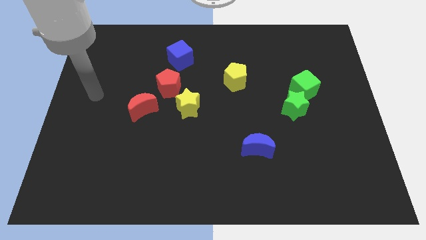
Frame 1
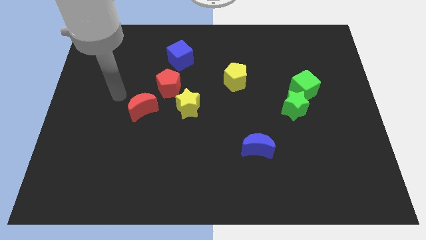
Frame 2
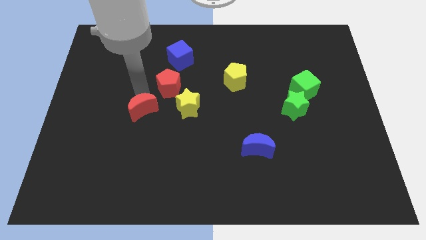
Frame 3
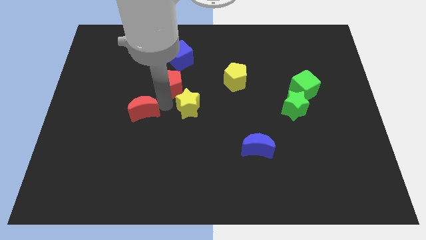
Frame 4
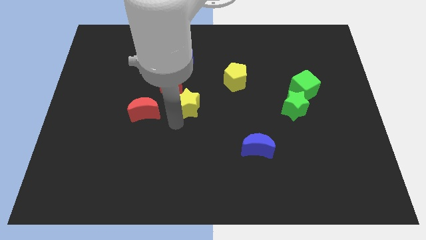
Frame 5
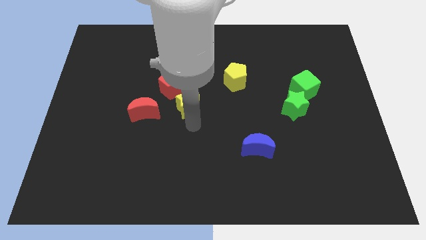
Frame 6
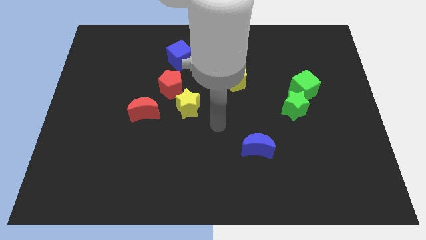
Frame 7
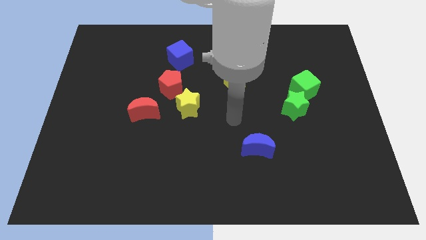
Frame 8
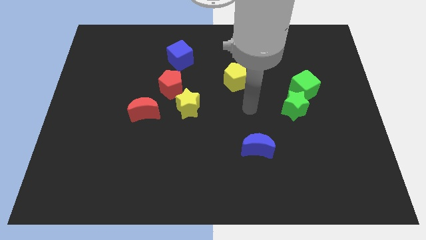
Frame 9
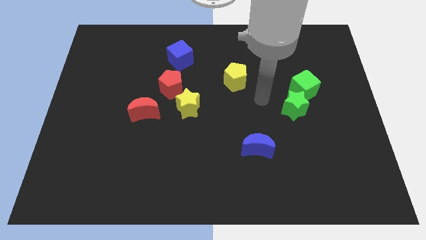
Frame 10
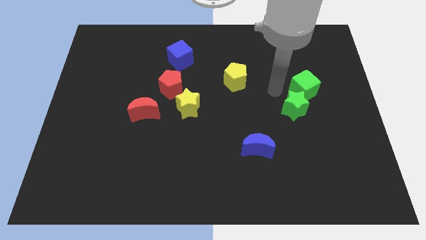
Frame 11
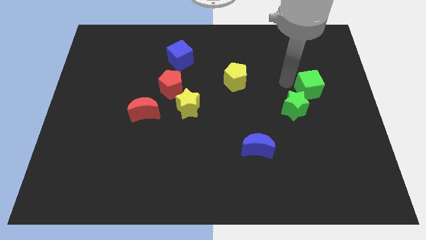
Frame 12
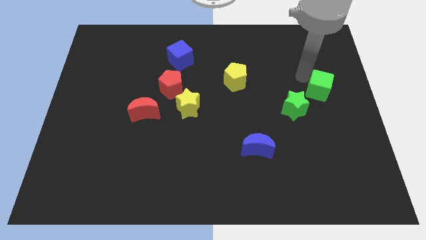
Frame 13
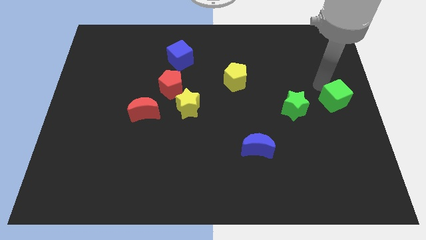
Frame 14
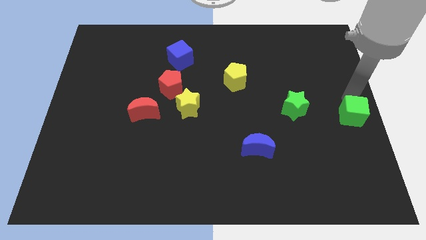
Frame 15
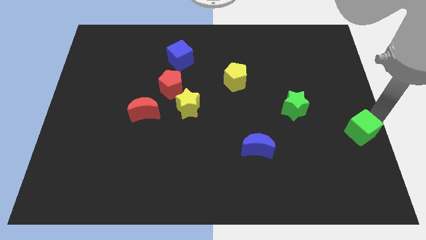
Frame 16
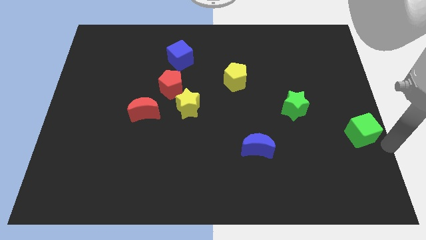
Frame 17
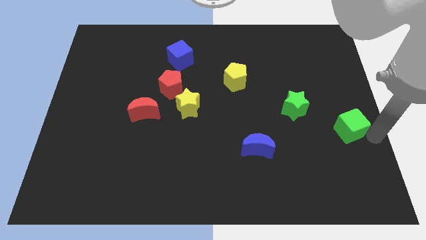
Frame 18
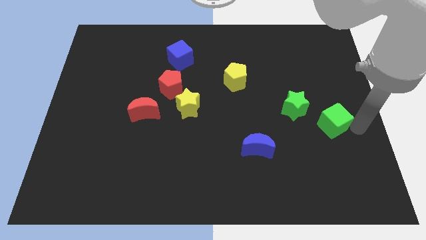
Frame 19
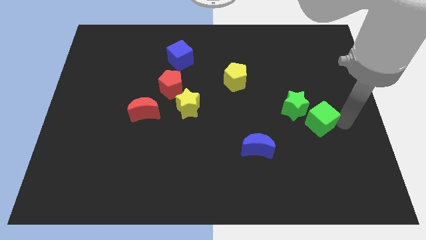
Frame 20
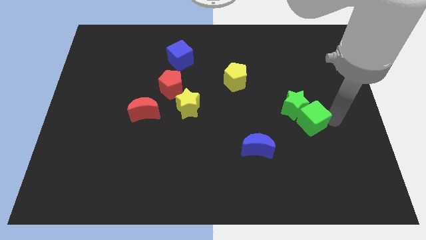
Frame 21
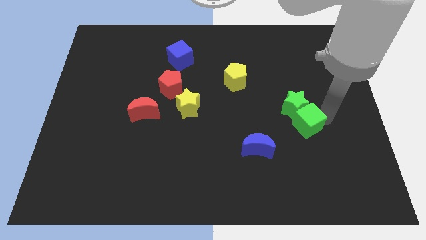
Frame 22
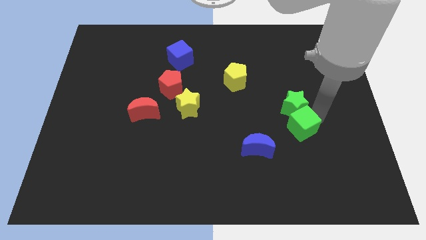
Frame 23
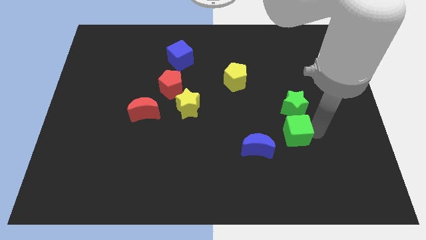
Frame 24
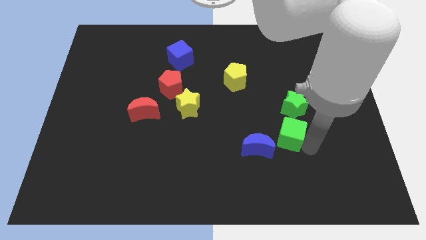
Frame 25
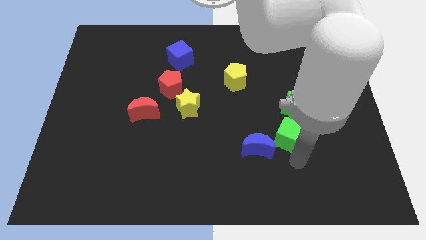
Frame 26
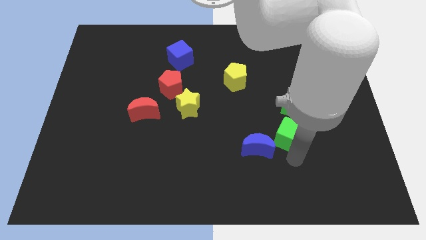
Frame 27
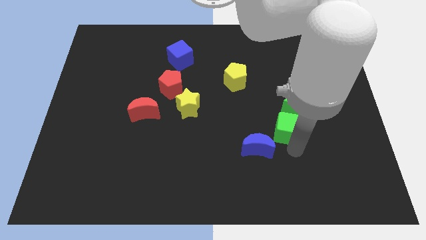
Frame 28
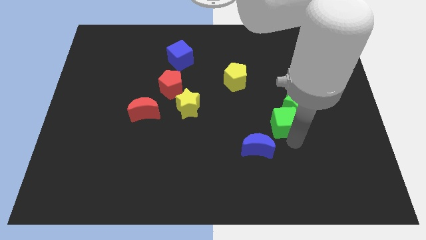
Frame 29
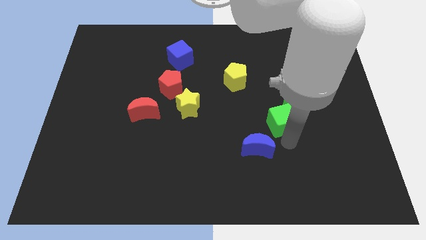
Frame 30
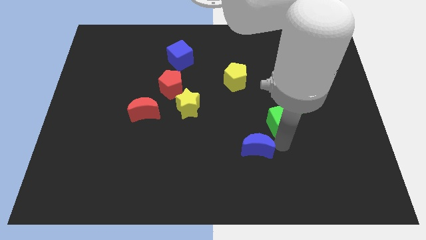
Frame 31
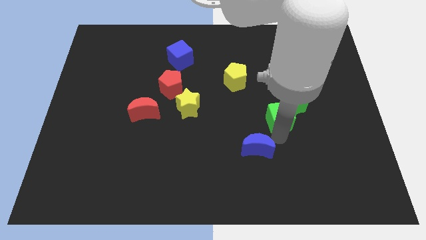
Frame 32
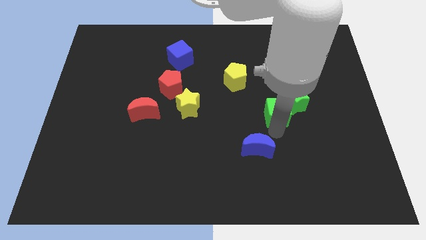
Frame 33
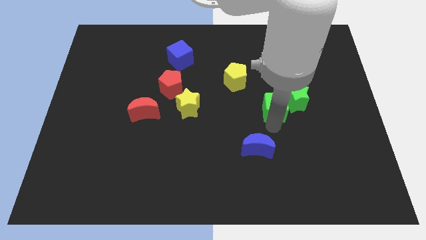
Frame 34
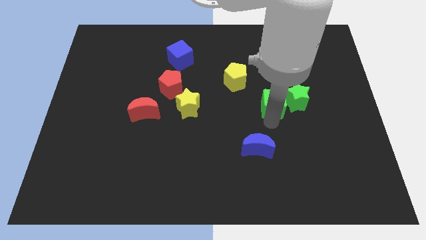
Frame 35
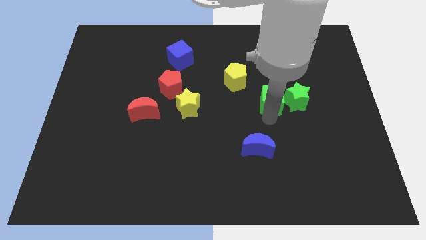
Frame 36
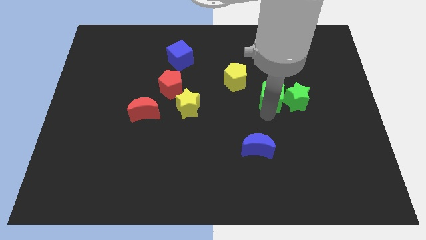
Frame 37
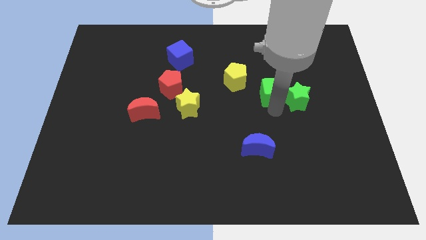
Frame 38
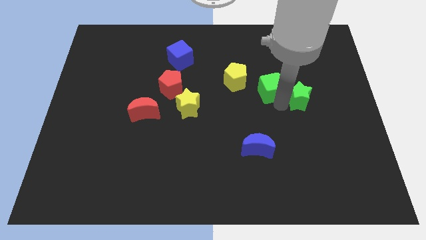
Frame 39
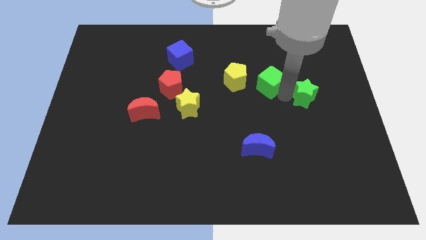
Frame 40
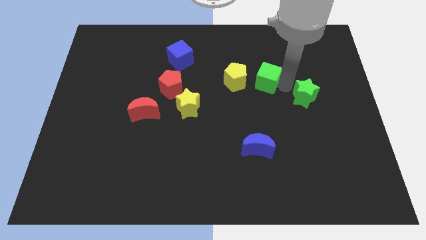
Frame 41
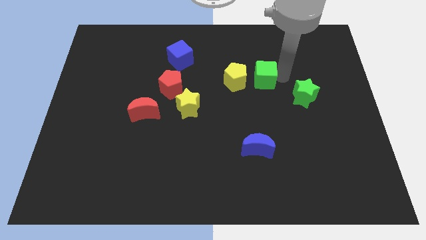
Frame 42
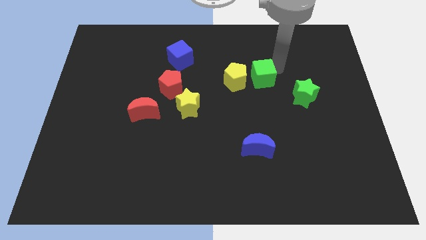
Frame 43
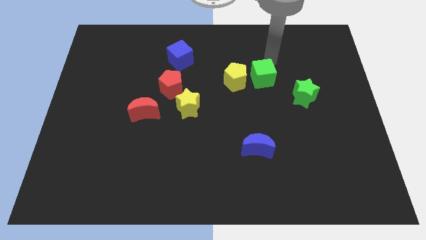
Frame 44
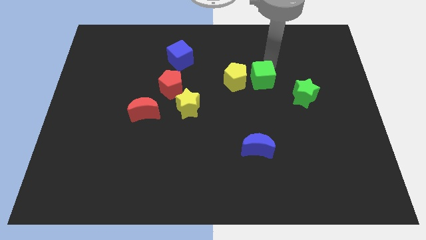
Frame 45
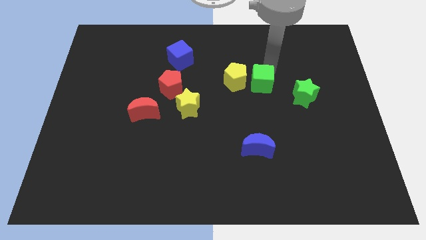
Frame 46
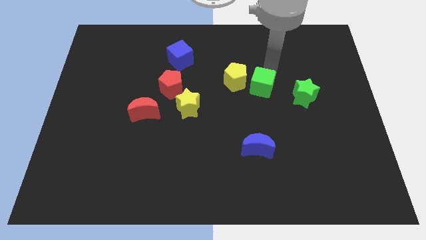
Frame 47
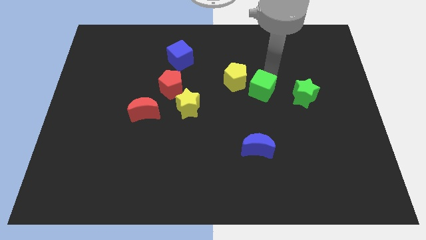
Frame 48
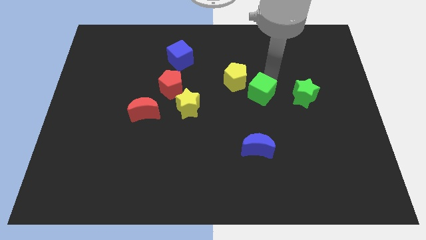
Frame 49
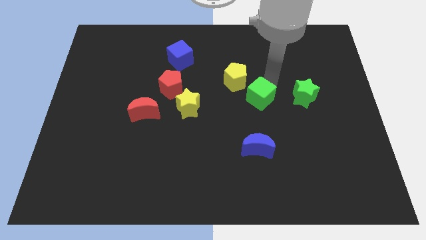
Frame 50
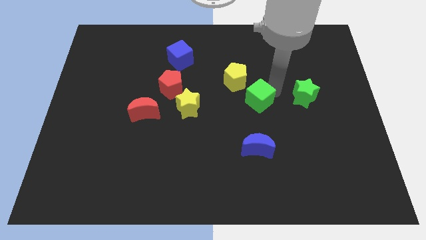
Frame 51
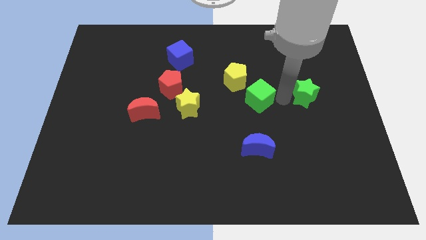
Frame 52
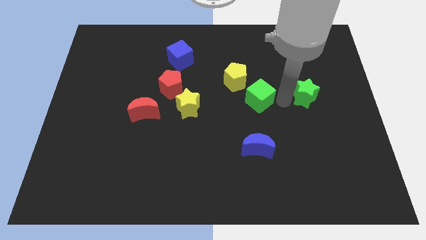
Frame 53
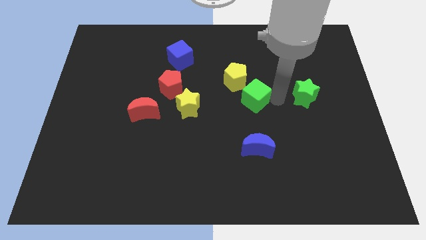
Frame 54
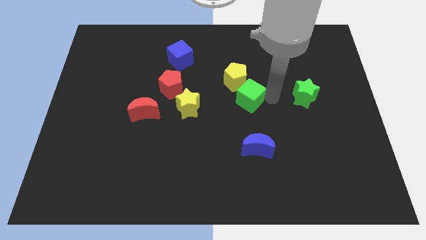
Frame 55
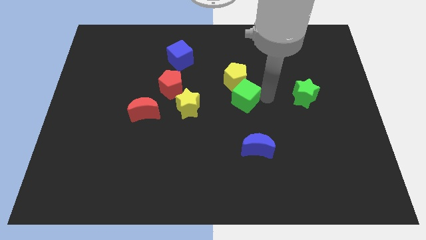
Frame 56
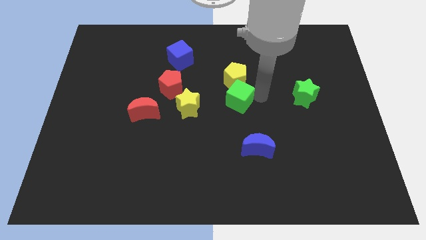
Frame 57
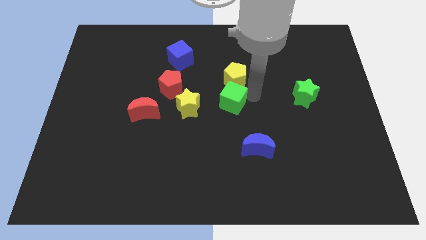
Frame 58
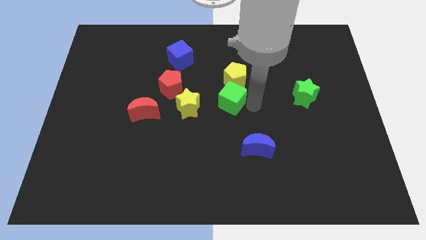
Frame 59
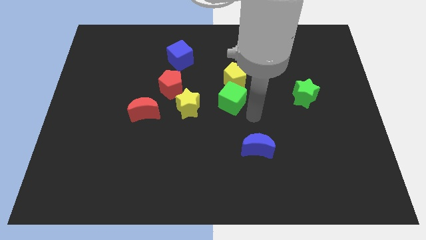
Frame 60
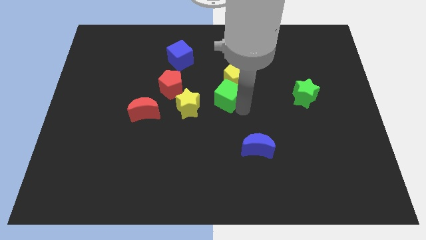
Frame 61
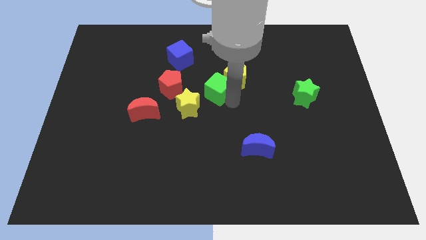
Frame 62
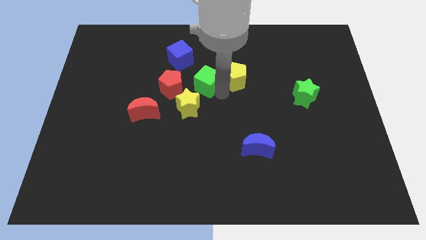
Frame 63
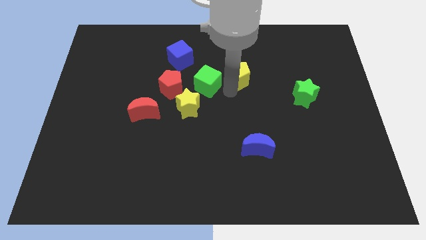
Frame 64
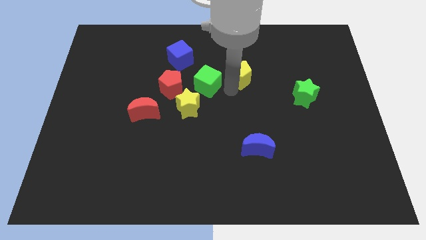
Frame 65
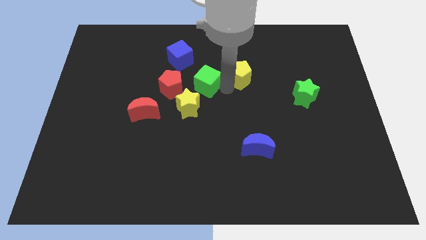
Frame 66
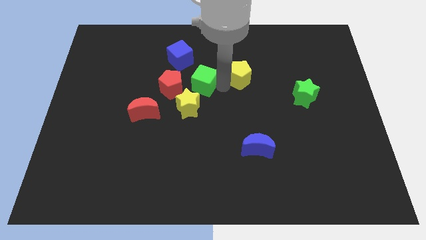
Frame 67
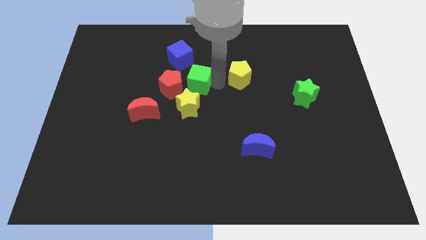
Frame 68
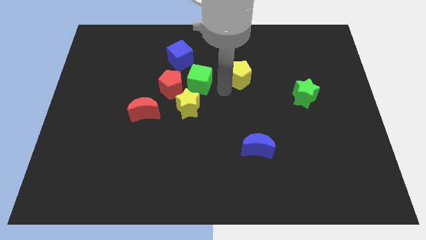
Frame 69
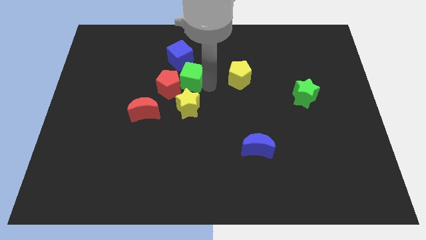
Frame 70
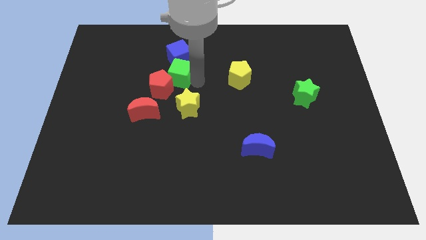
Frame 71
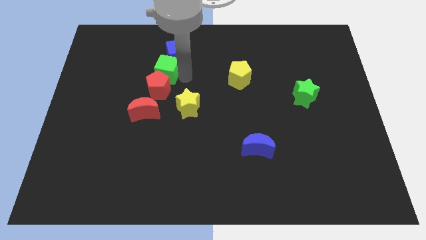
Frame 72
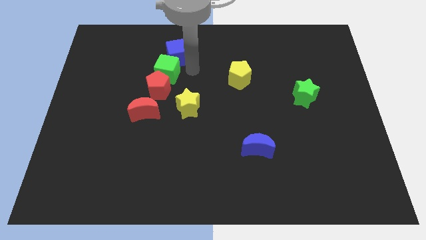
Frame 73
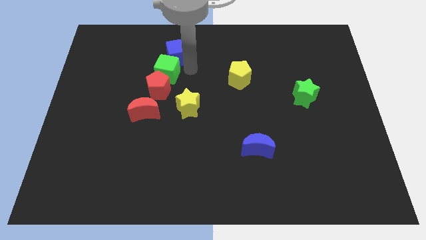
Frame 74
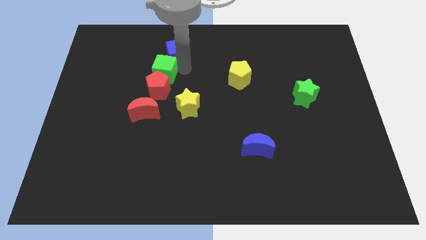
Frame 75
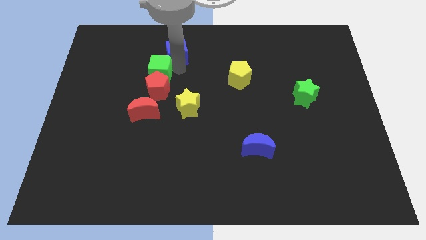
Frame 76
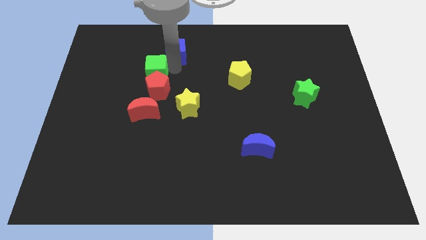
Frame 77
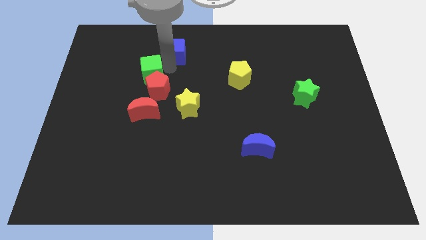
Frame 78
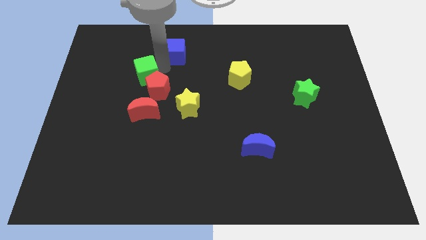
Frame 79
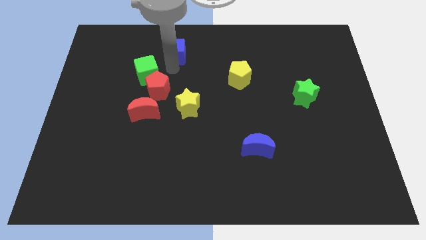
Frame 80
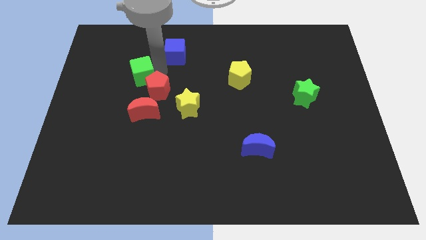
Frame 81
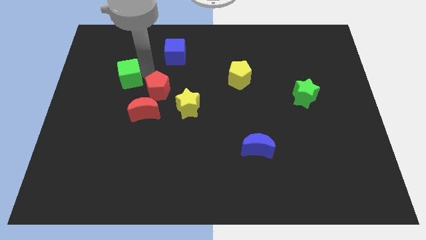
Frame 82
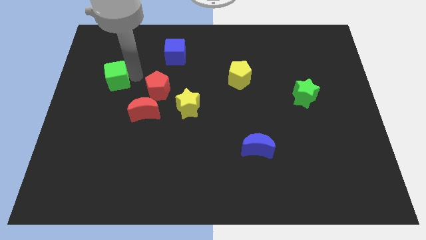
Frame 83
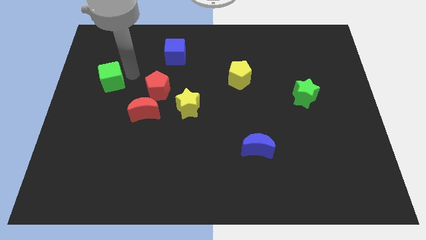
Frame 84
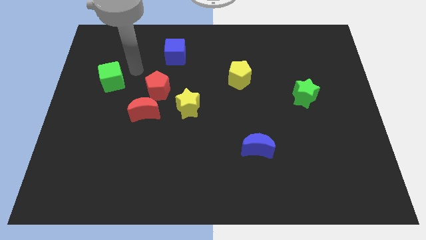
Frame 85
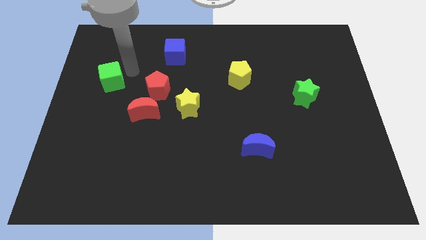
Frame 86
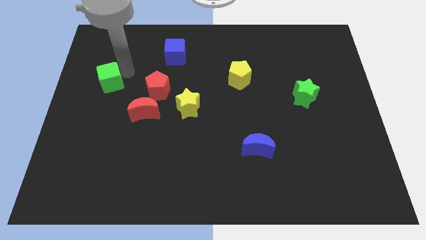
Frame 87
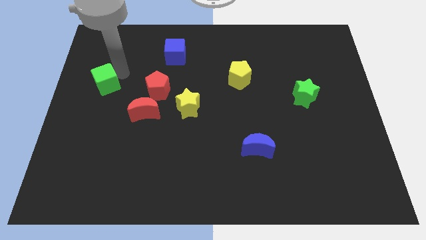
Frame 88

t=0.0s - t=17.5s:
put the green cube to the left side of the board
